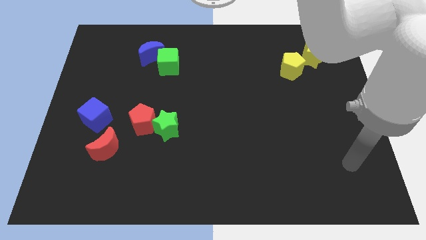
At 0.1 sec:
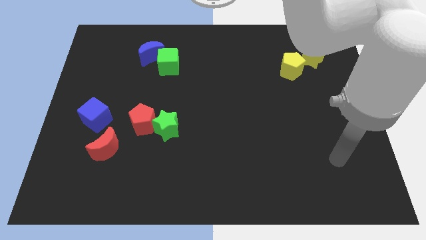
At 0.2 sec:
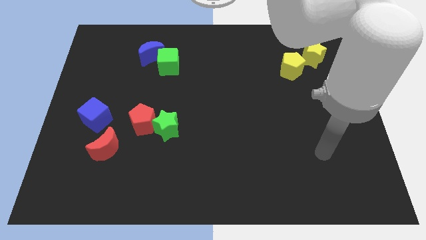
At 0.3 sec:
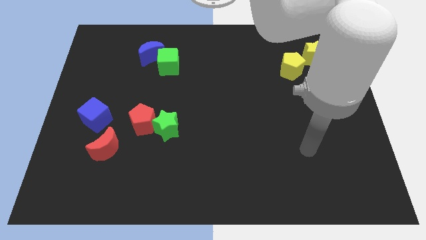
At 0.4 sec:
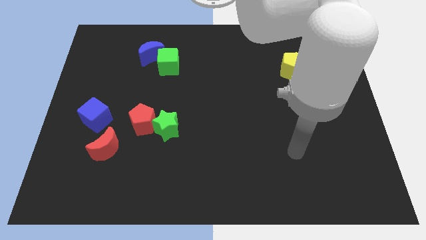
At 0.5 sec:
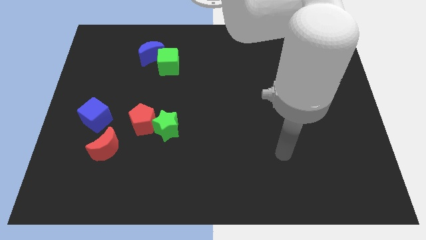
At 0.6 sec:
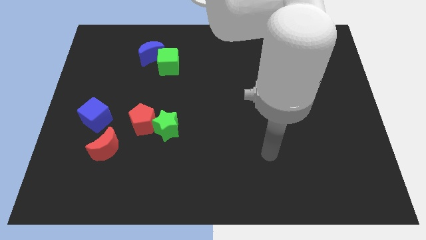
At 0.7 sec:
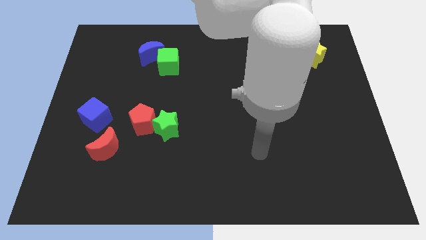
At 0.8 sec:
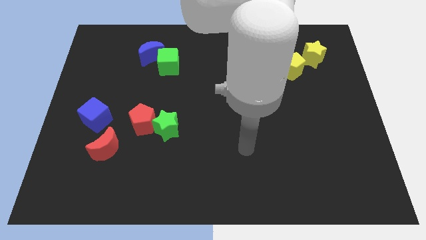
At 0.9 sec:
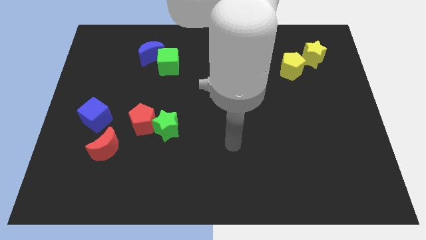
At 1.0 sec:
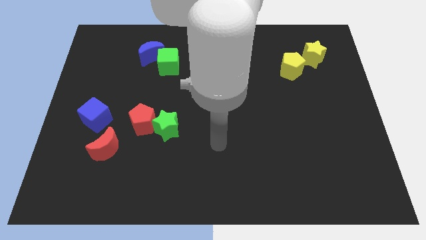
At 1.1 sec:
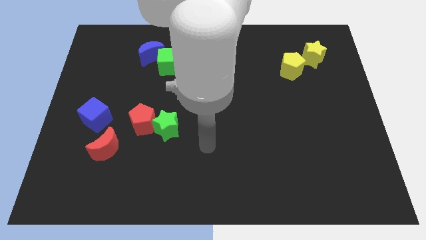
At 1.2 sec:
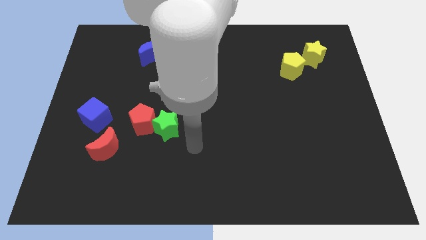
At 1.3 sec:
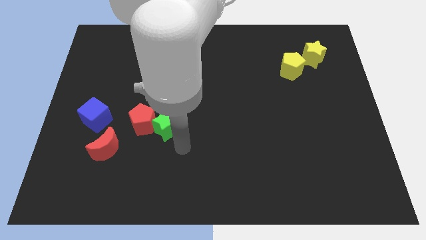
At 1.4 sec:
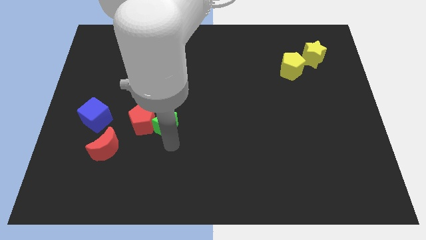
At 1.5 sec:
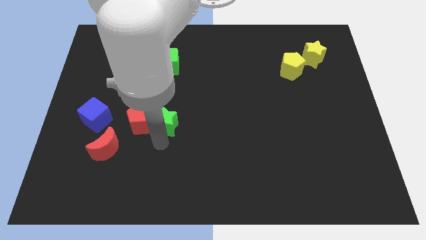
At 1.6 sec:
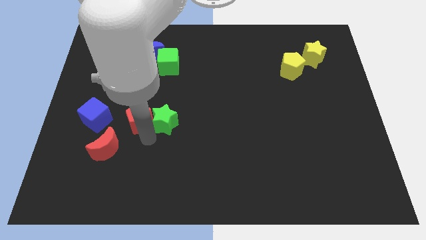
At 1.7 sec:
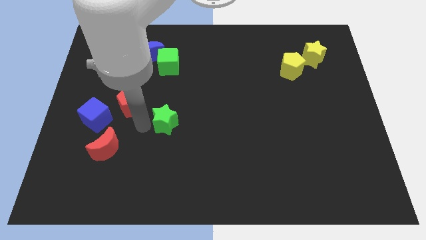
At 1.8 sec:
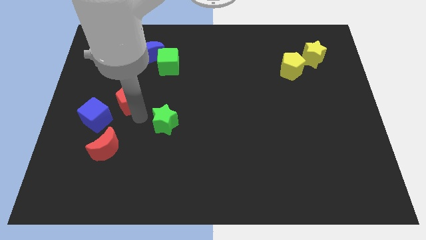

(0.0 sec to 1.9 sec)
pull the green star apart from the red pentagon

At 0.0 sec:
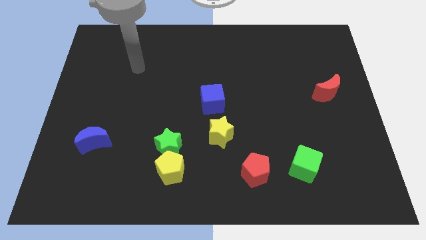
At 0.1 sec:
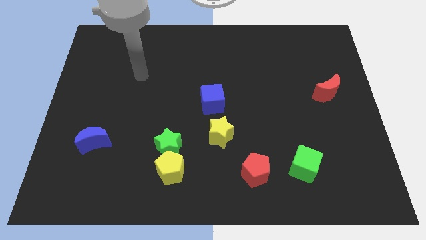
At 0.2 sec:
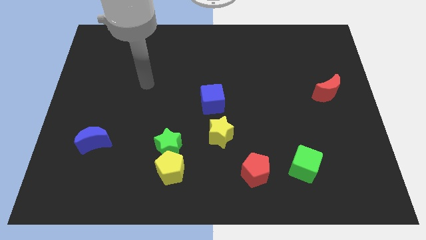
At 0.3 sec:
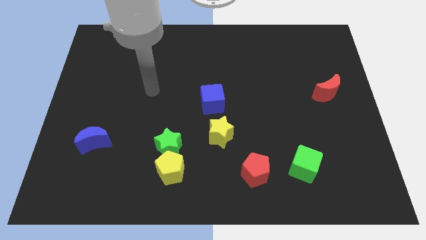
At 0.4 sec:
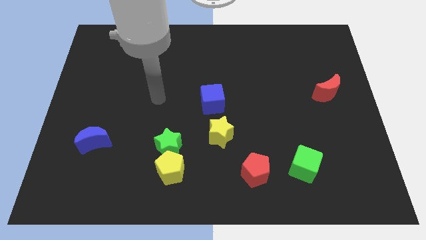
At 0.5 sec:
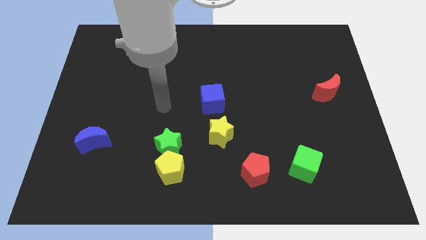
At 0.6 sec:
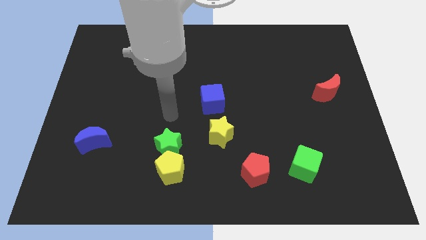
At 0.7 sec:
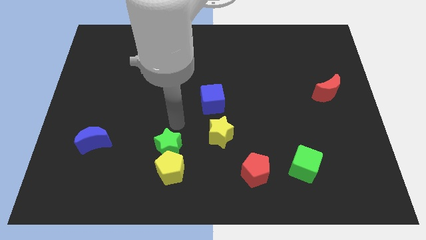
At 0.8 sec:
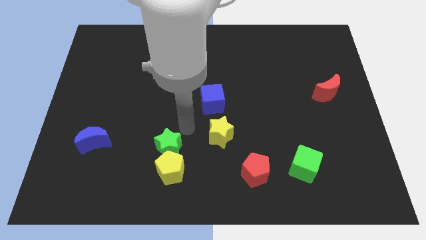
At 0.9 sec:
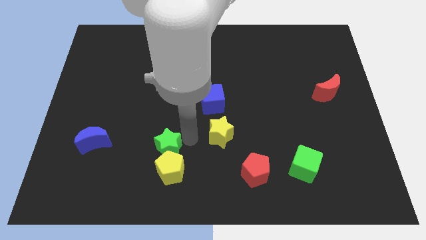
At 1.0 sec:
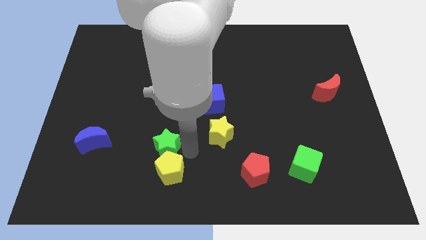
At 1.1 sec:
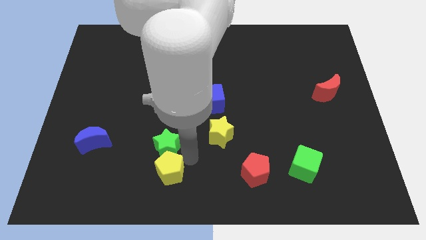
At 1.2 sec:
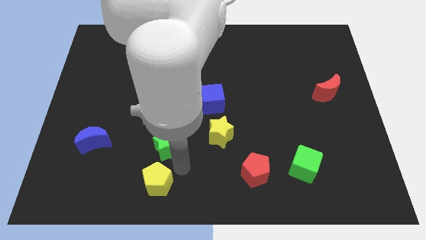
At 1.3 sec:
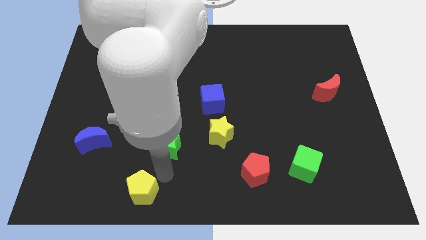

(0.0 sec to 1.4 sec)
separate the green star from the yellow pentagon

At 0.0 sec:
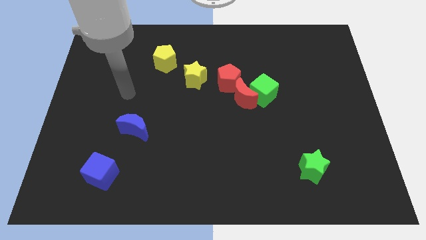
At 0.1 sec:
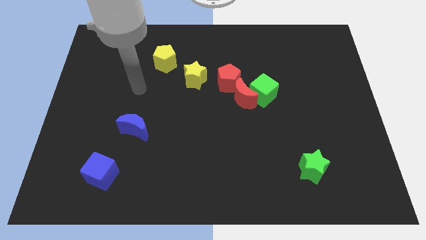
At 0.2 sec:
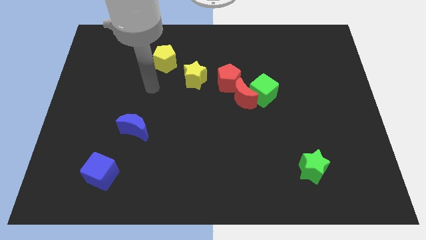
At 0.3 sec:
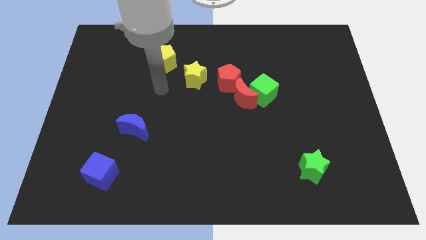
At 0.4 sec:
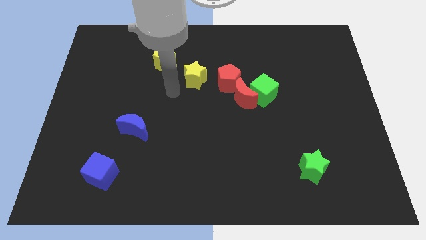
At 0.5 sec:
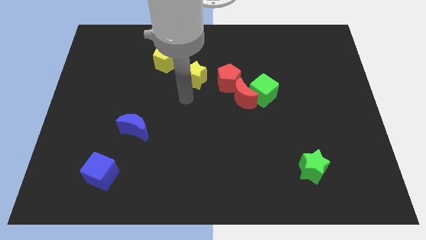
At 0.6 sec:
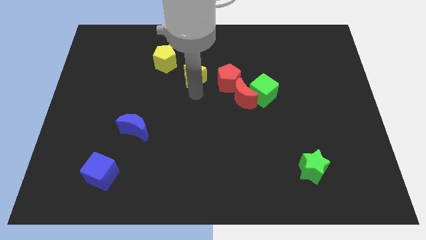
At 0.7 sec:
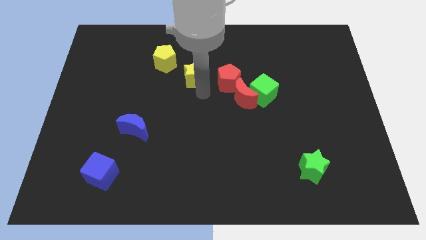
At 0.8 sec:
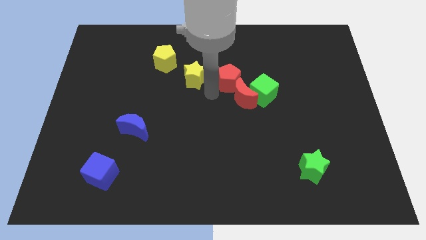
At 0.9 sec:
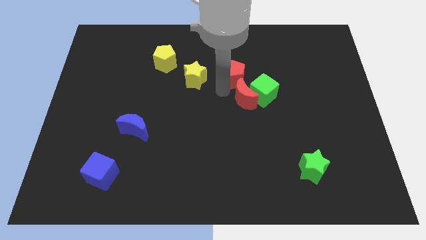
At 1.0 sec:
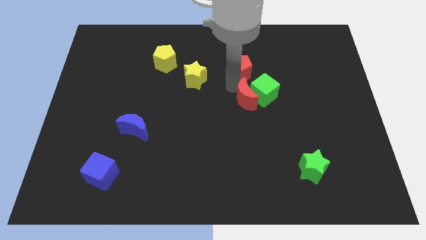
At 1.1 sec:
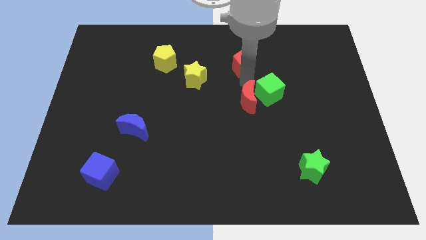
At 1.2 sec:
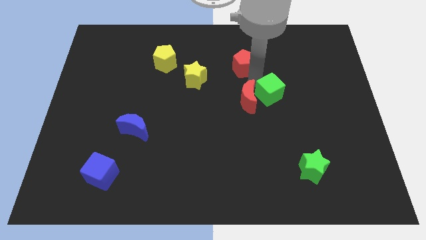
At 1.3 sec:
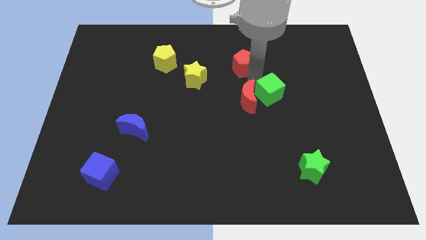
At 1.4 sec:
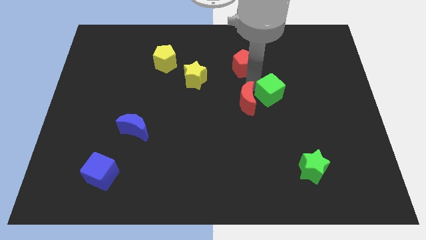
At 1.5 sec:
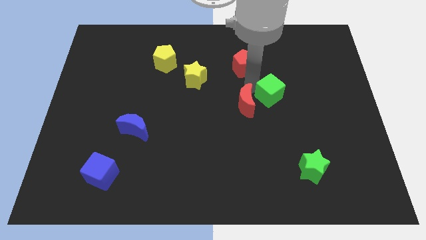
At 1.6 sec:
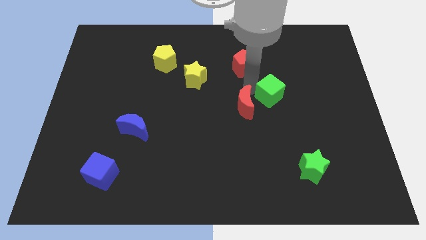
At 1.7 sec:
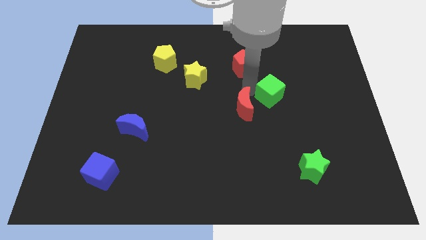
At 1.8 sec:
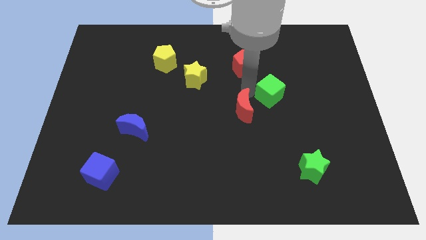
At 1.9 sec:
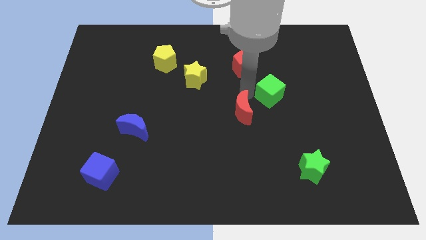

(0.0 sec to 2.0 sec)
pull the red moon apart from the green cube and red pentagon

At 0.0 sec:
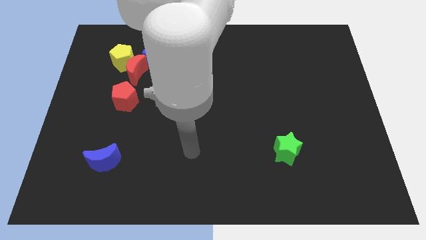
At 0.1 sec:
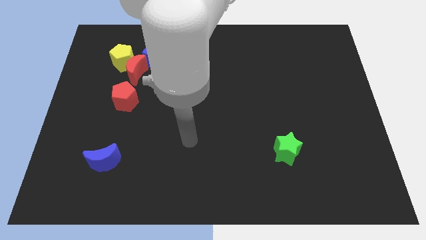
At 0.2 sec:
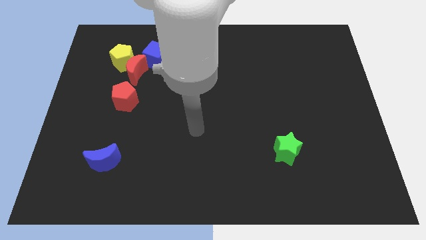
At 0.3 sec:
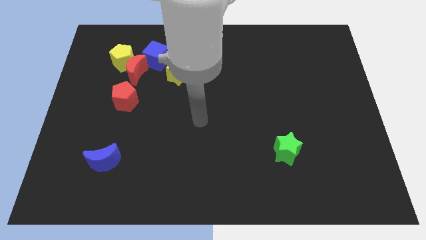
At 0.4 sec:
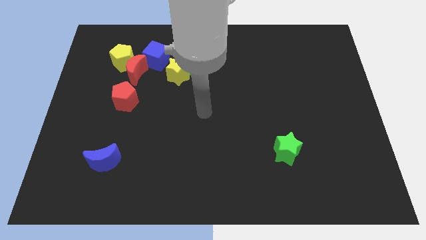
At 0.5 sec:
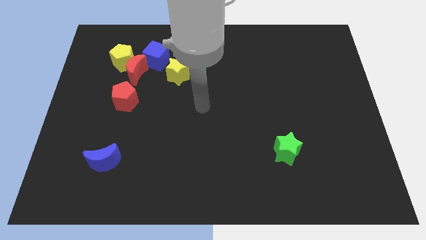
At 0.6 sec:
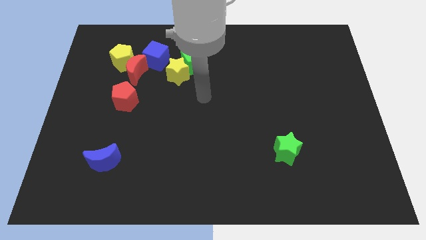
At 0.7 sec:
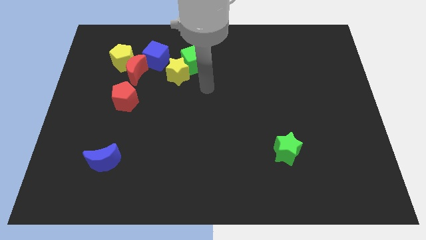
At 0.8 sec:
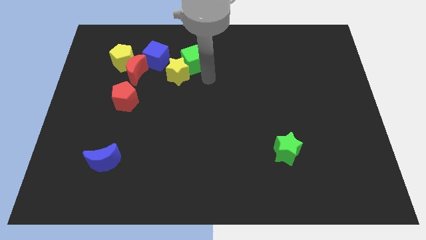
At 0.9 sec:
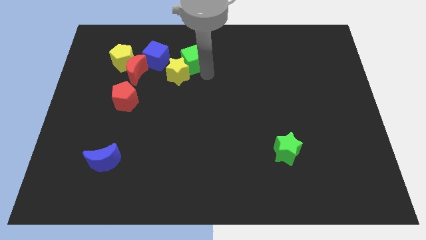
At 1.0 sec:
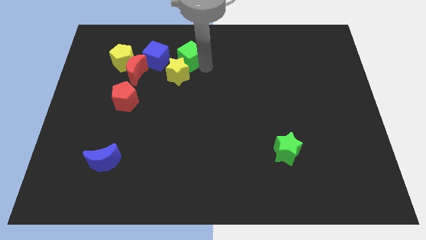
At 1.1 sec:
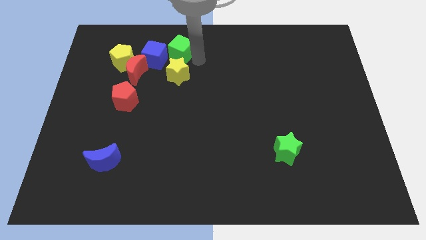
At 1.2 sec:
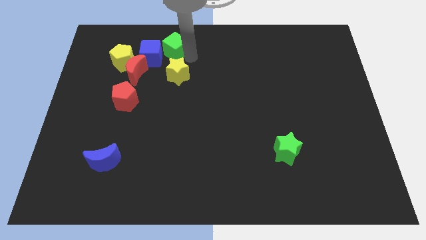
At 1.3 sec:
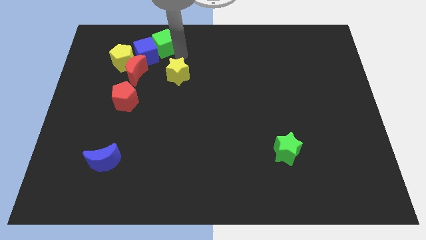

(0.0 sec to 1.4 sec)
move the yellow star away from the green cube and blue cube

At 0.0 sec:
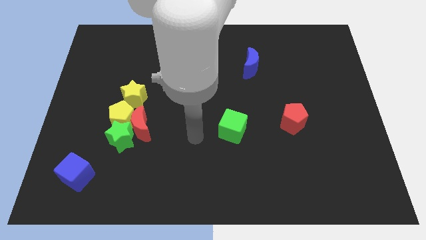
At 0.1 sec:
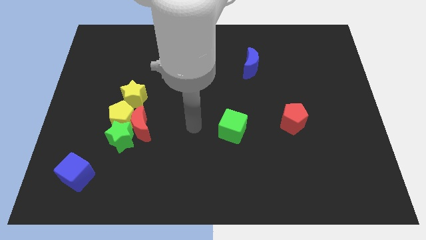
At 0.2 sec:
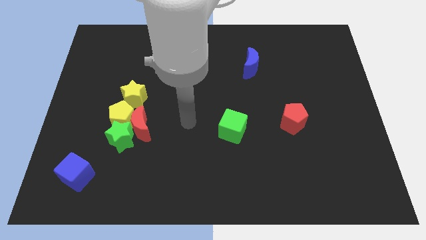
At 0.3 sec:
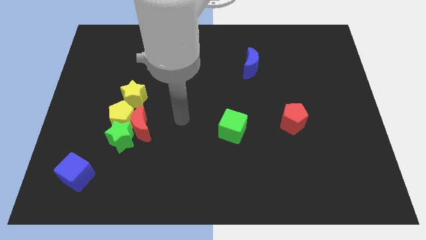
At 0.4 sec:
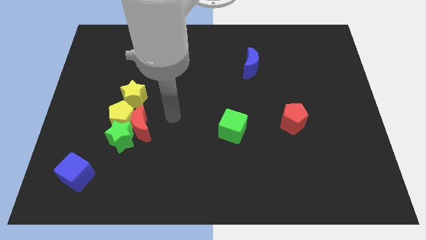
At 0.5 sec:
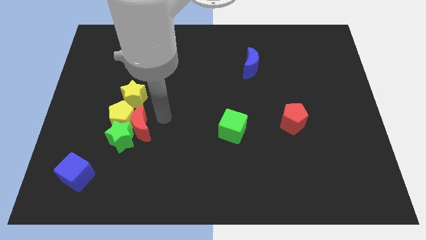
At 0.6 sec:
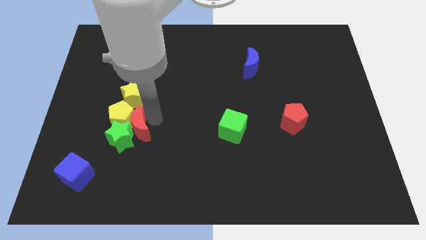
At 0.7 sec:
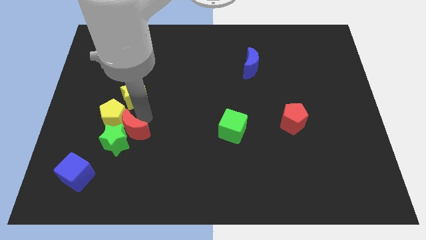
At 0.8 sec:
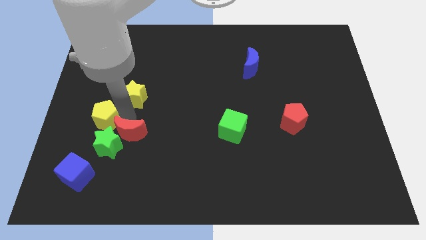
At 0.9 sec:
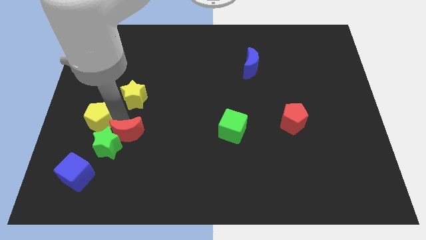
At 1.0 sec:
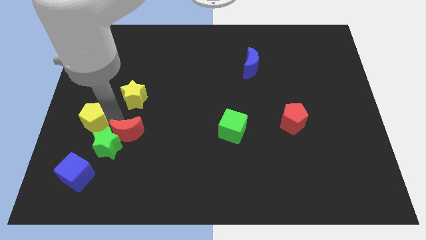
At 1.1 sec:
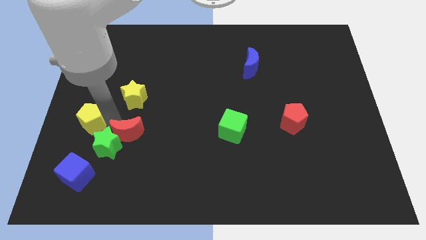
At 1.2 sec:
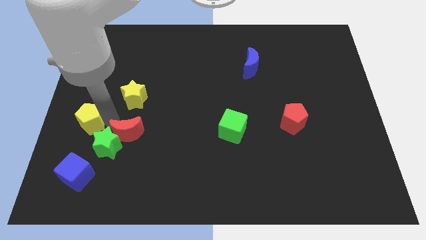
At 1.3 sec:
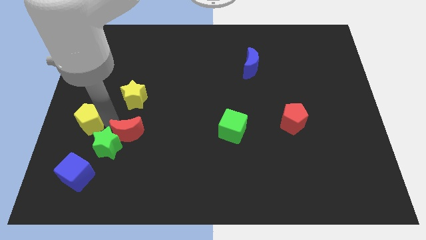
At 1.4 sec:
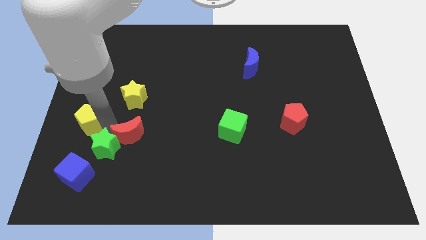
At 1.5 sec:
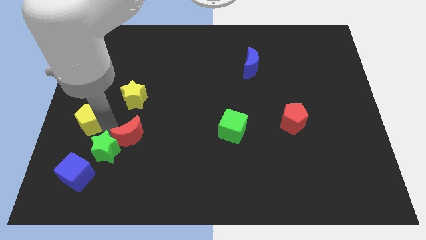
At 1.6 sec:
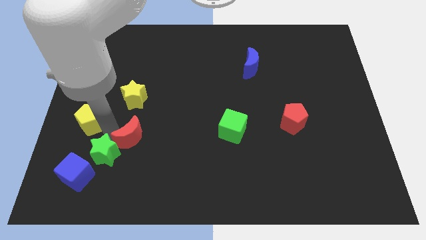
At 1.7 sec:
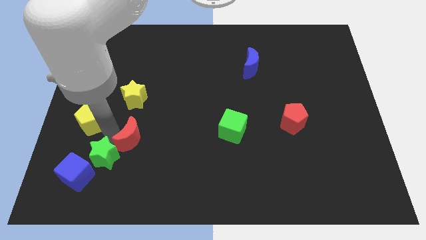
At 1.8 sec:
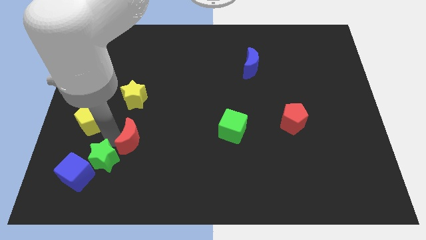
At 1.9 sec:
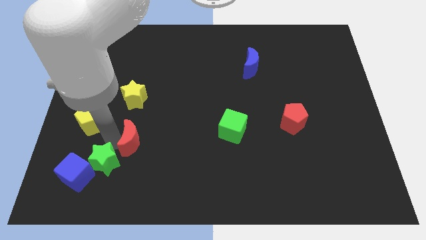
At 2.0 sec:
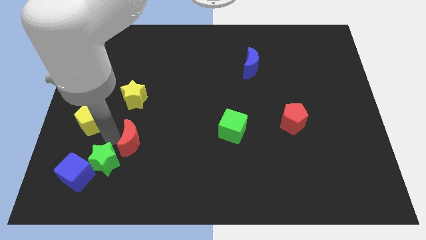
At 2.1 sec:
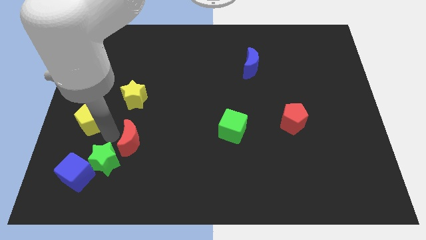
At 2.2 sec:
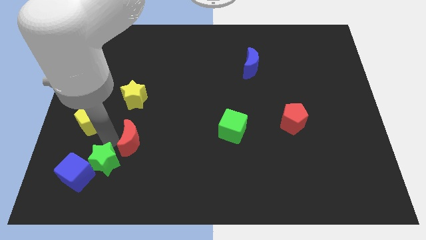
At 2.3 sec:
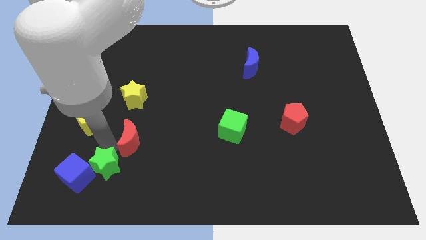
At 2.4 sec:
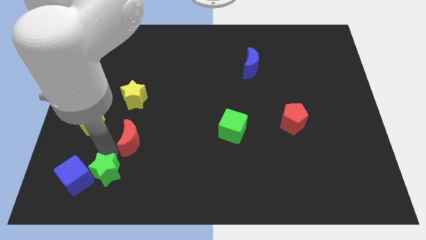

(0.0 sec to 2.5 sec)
pull the green star apart from the red moon and yellow pentagon

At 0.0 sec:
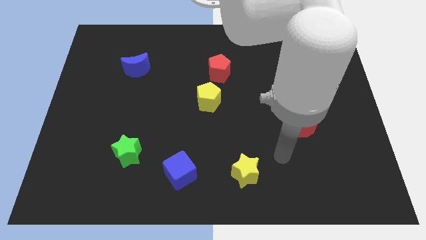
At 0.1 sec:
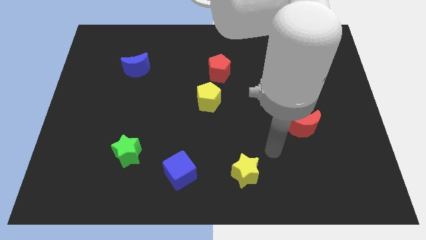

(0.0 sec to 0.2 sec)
separate the red pentagon from the yellow pentagon
